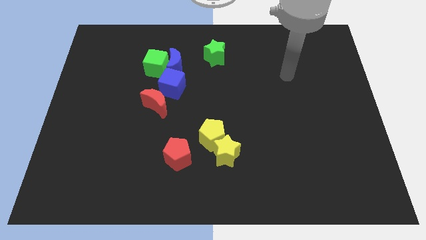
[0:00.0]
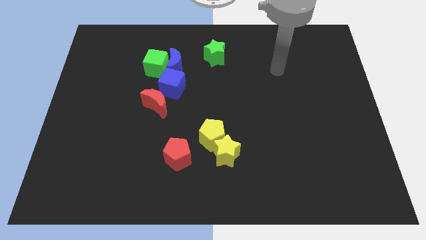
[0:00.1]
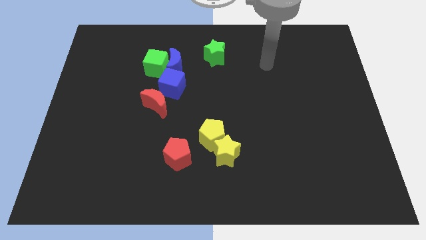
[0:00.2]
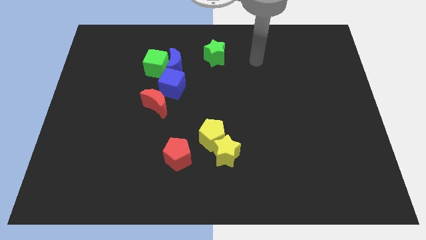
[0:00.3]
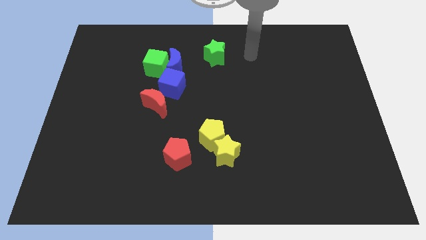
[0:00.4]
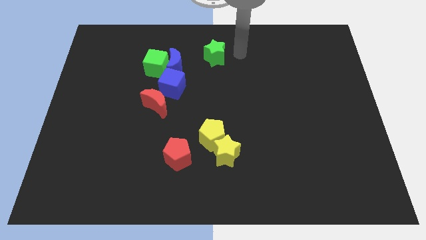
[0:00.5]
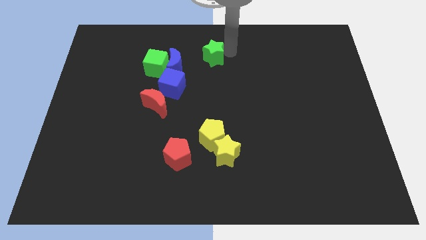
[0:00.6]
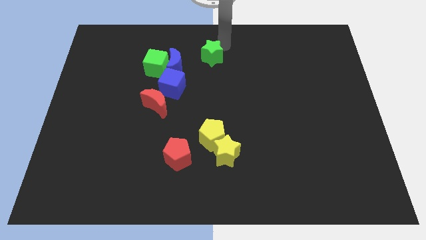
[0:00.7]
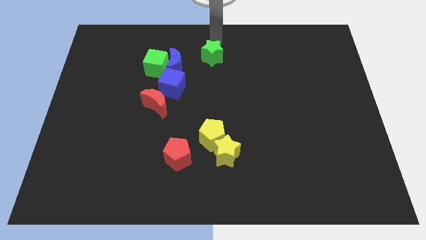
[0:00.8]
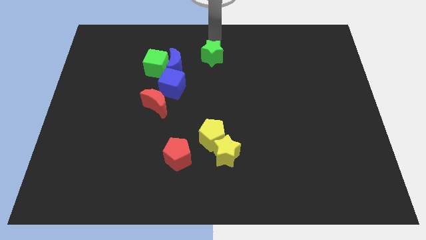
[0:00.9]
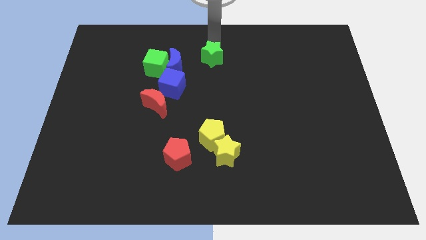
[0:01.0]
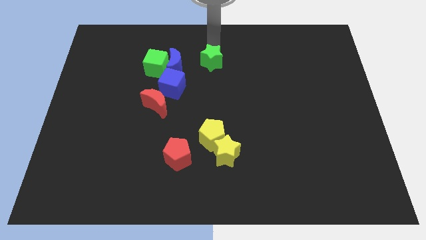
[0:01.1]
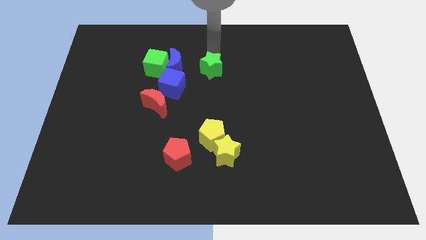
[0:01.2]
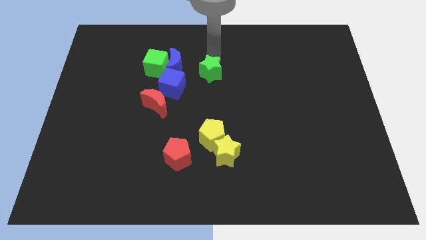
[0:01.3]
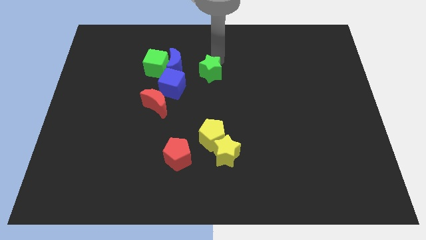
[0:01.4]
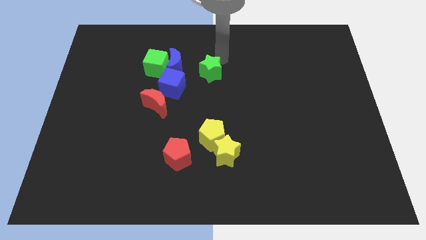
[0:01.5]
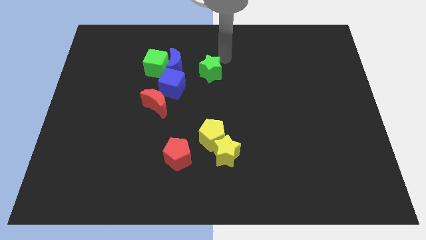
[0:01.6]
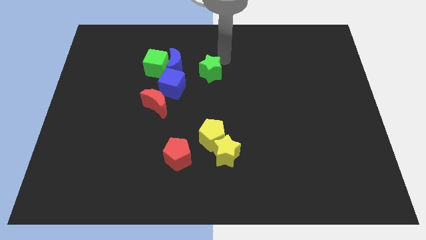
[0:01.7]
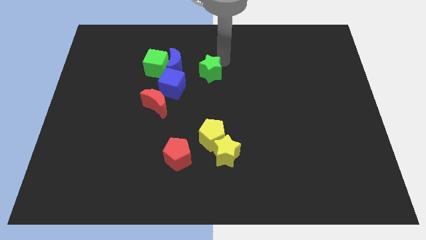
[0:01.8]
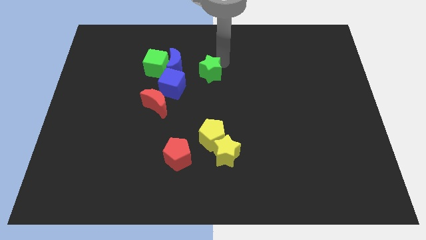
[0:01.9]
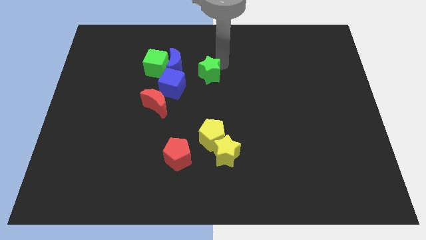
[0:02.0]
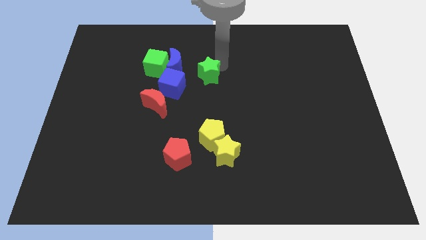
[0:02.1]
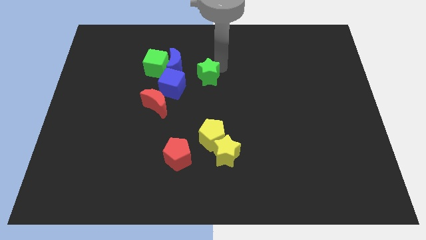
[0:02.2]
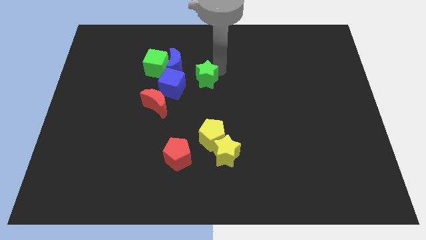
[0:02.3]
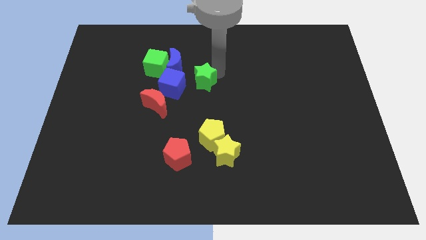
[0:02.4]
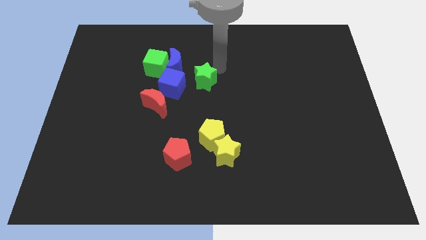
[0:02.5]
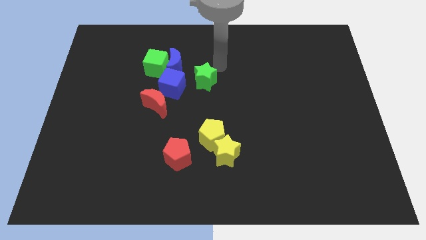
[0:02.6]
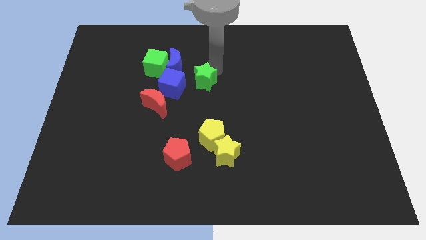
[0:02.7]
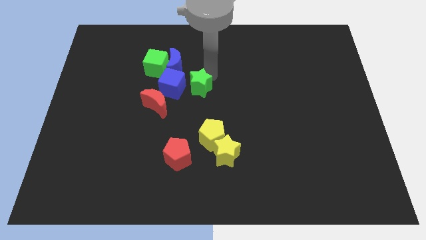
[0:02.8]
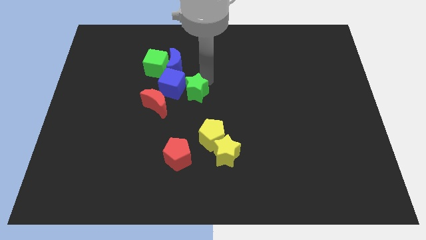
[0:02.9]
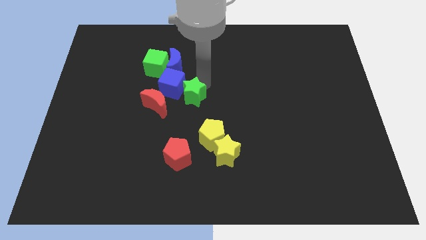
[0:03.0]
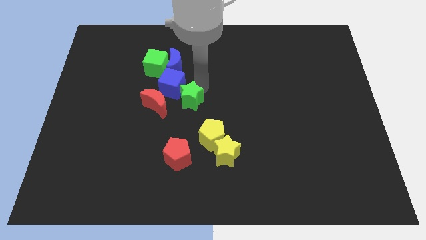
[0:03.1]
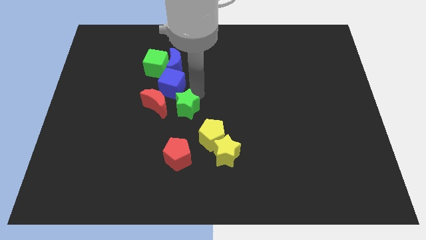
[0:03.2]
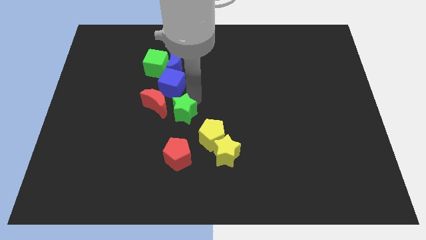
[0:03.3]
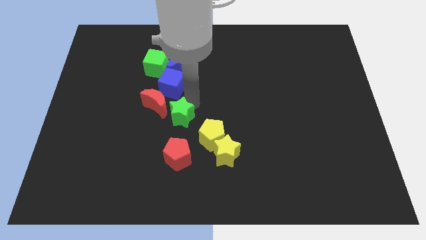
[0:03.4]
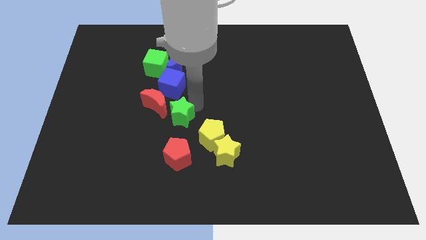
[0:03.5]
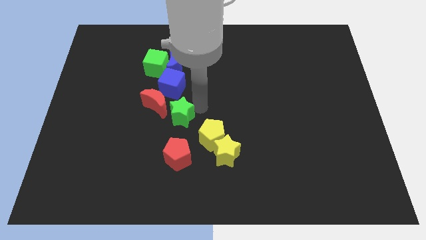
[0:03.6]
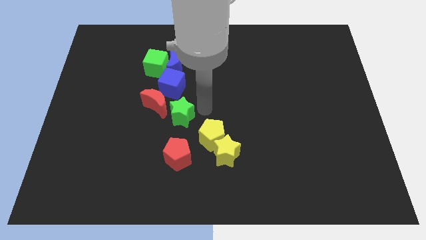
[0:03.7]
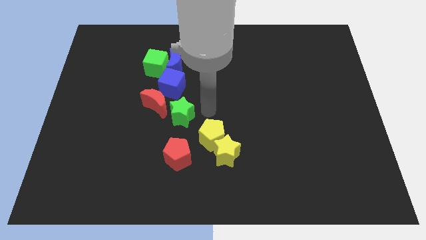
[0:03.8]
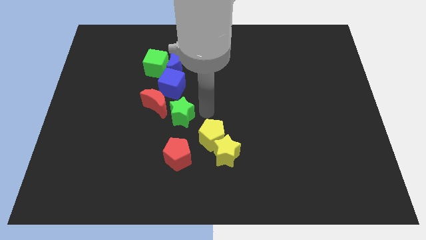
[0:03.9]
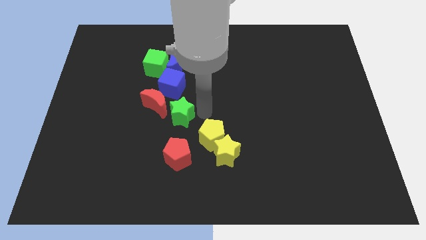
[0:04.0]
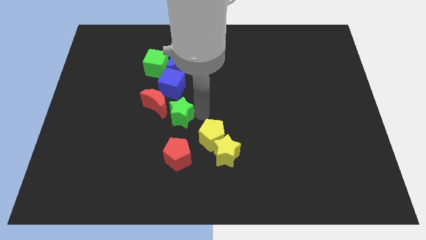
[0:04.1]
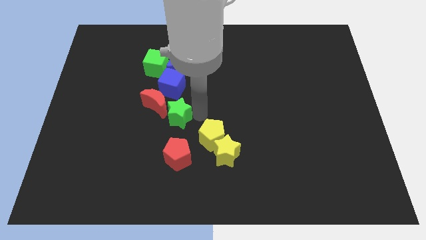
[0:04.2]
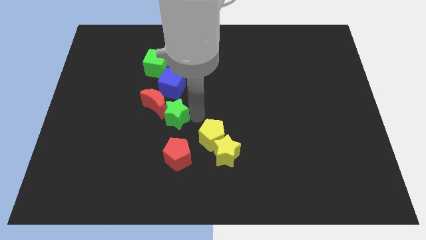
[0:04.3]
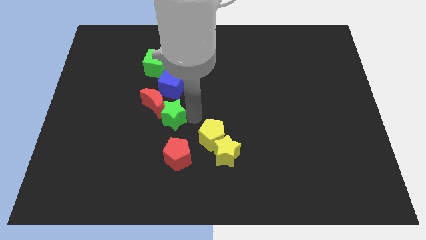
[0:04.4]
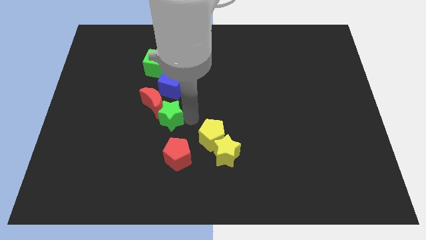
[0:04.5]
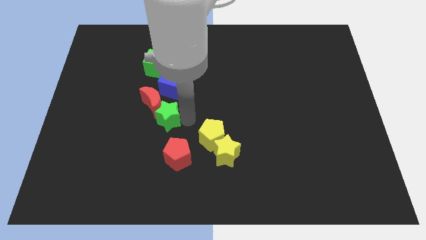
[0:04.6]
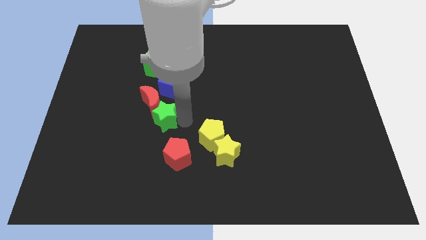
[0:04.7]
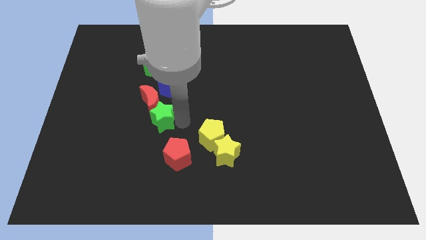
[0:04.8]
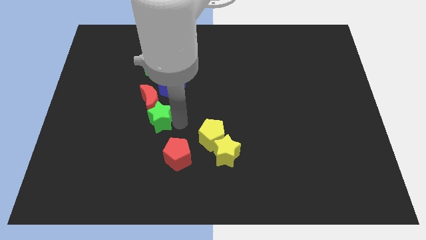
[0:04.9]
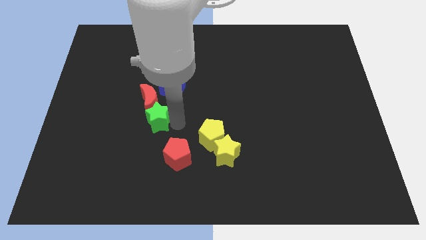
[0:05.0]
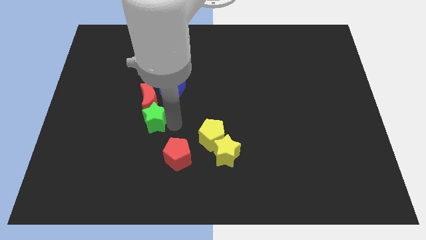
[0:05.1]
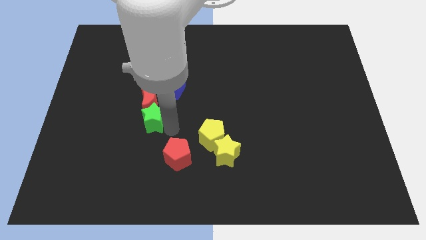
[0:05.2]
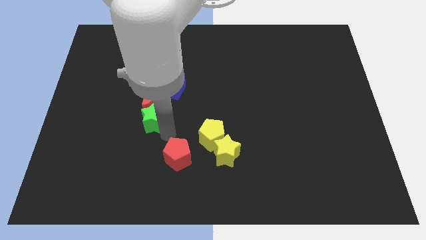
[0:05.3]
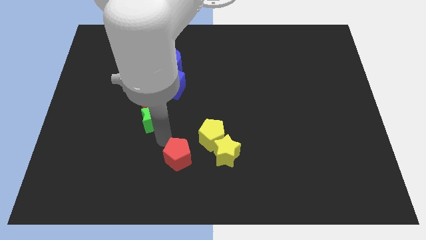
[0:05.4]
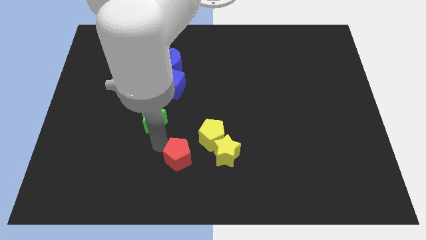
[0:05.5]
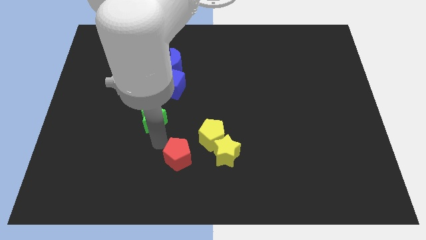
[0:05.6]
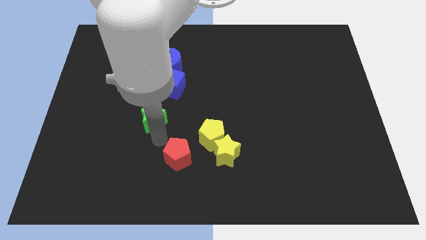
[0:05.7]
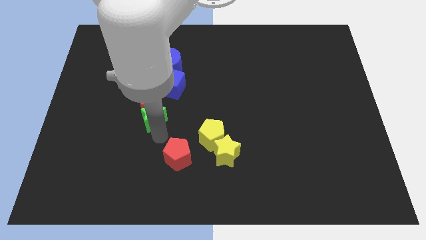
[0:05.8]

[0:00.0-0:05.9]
put the green star diagonally down and to the left of the blue cube
